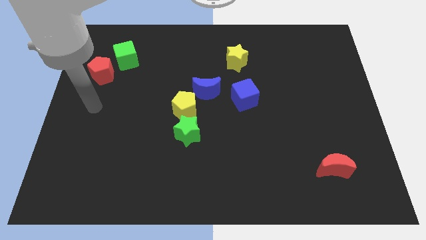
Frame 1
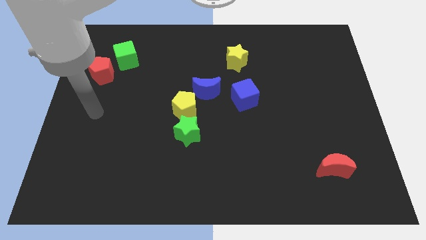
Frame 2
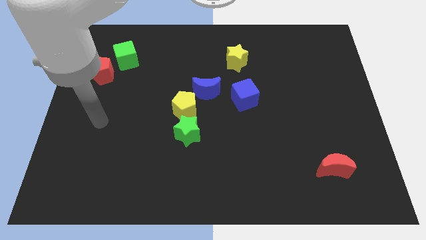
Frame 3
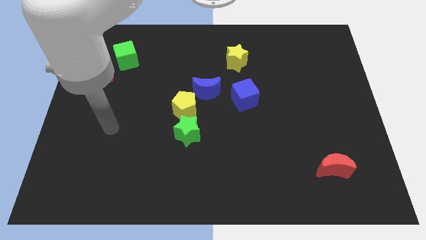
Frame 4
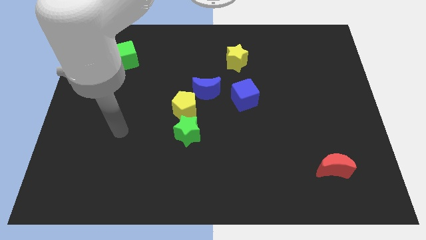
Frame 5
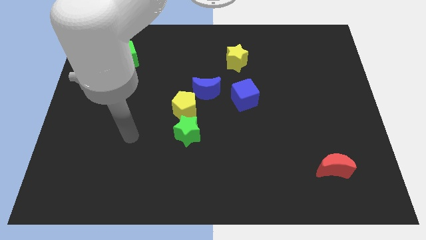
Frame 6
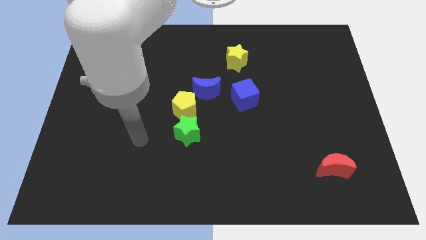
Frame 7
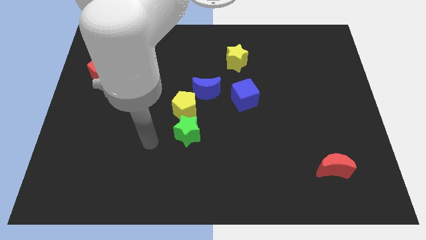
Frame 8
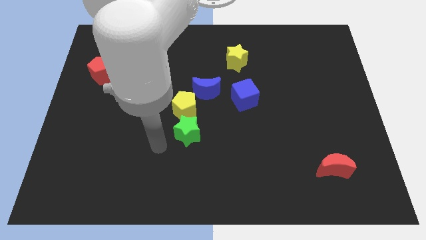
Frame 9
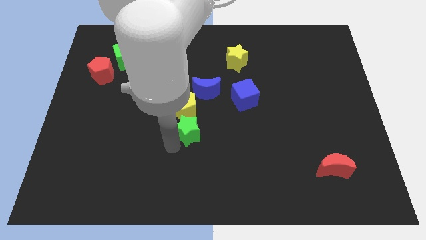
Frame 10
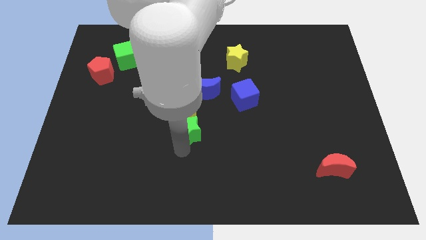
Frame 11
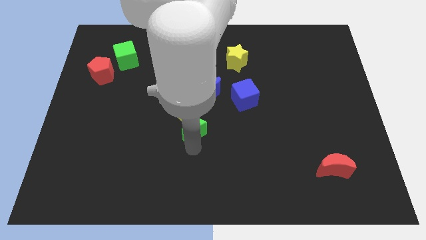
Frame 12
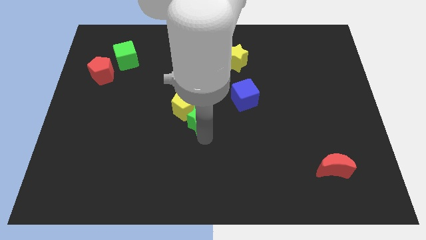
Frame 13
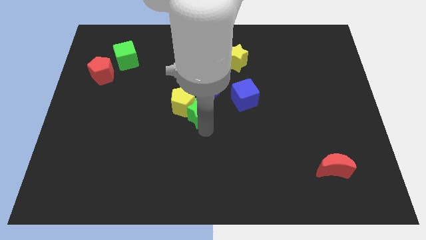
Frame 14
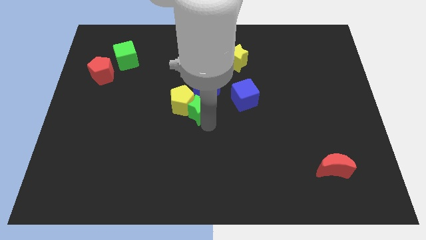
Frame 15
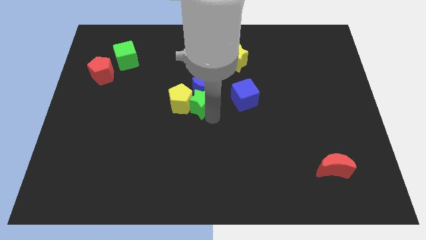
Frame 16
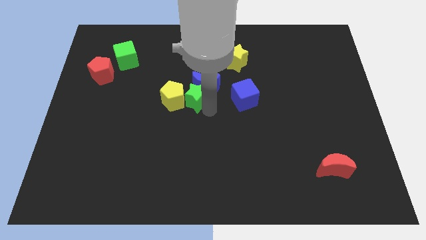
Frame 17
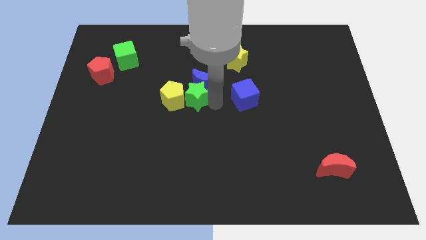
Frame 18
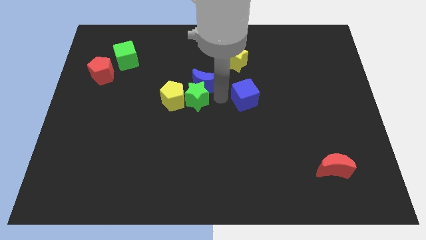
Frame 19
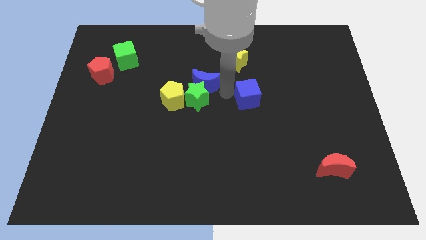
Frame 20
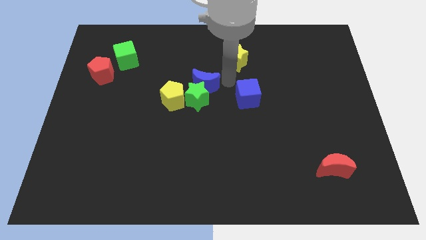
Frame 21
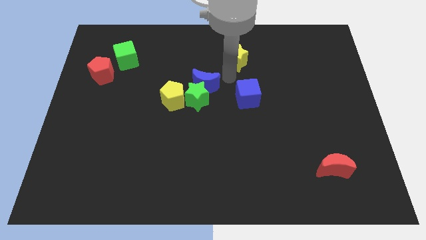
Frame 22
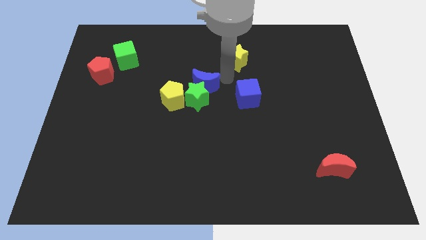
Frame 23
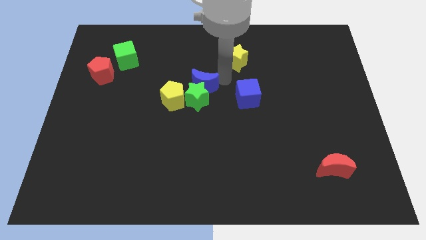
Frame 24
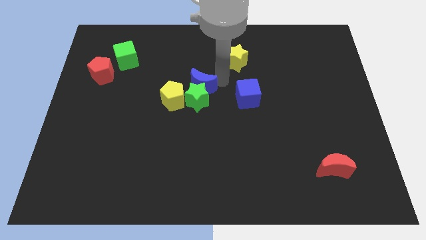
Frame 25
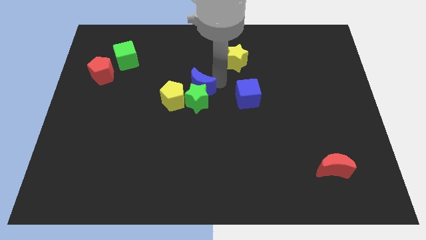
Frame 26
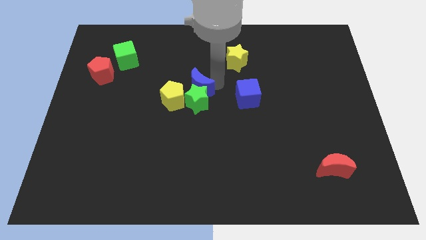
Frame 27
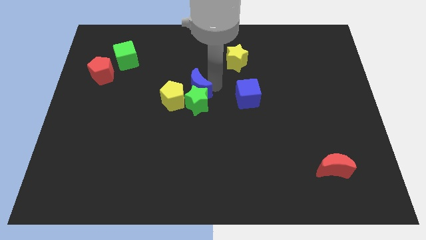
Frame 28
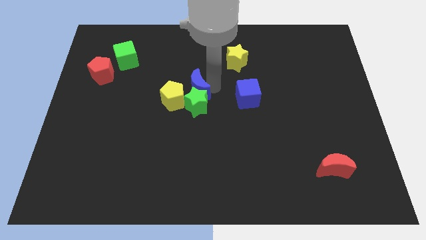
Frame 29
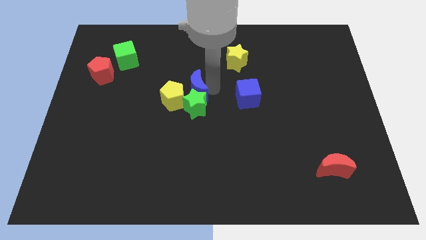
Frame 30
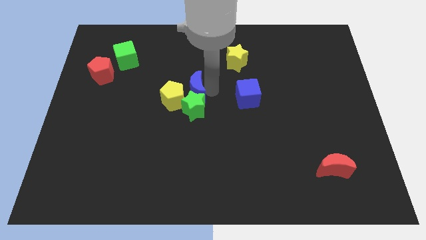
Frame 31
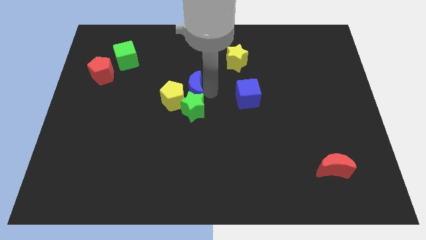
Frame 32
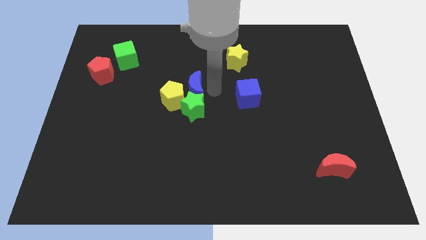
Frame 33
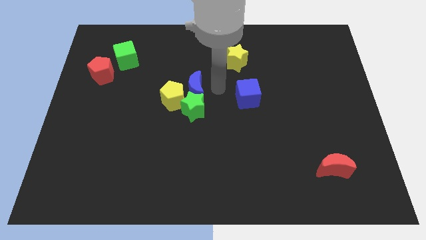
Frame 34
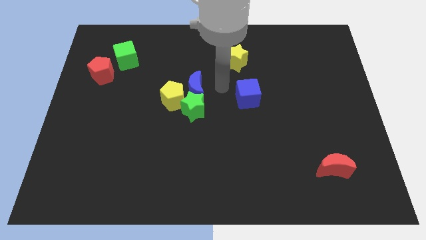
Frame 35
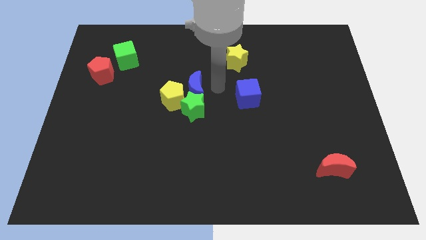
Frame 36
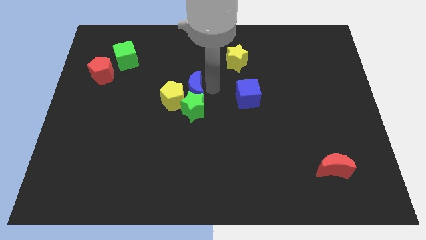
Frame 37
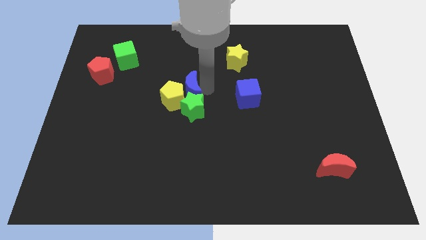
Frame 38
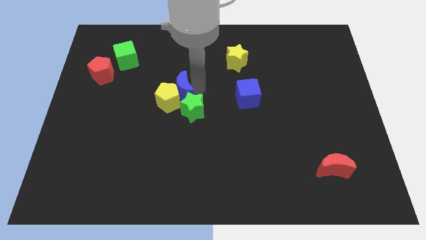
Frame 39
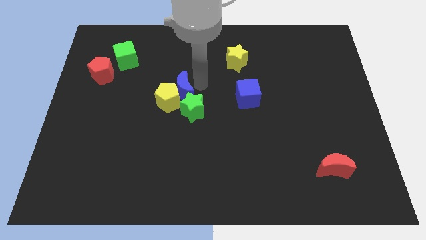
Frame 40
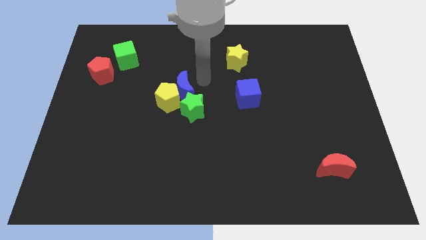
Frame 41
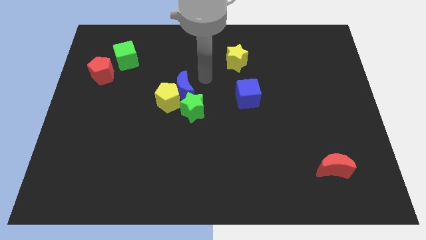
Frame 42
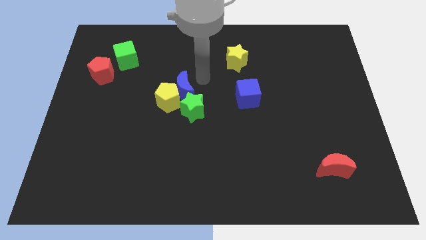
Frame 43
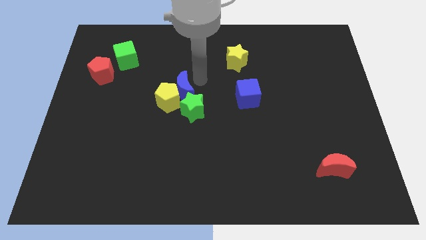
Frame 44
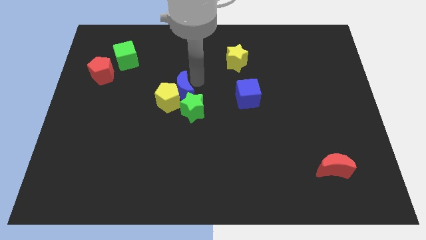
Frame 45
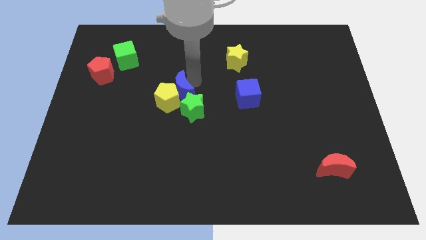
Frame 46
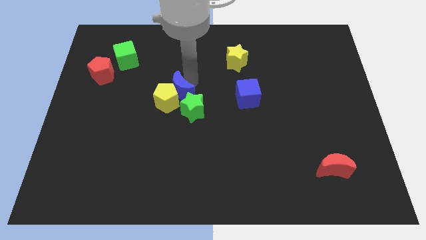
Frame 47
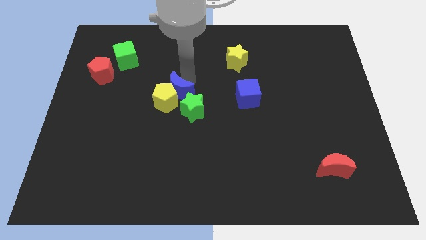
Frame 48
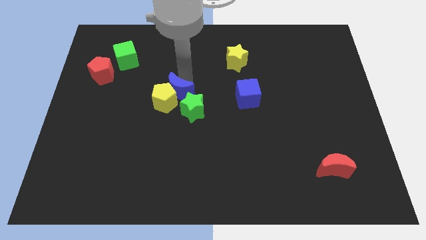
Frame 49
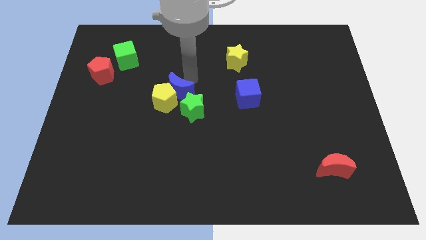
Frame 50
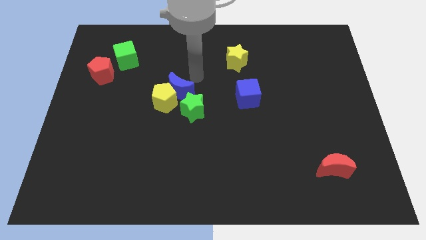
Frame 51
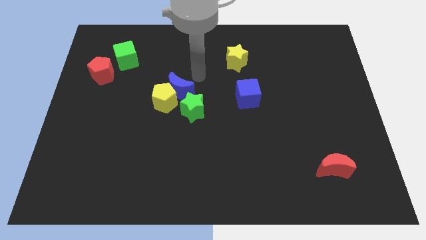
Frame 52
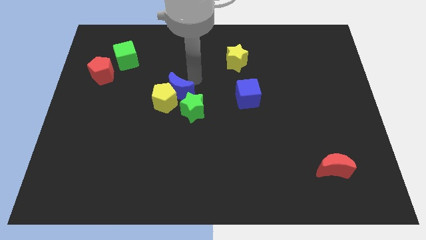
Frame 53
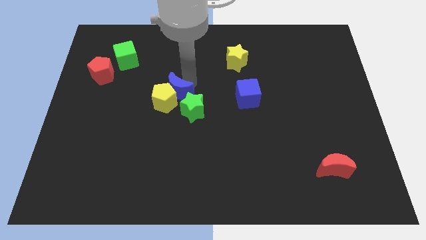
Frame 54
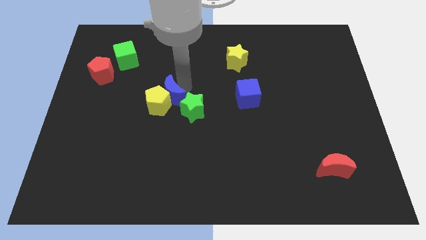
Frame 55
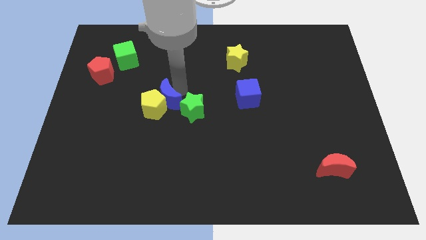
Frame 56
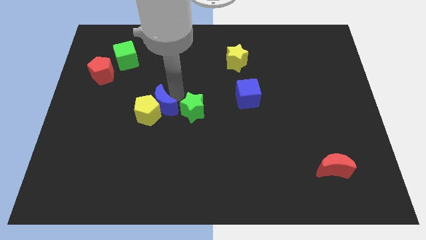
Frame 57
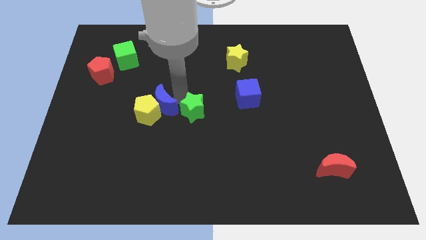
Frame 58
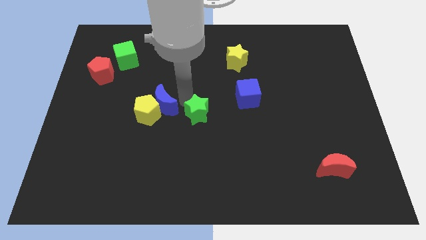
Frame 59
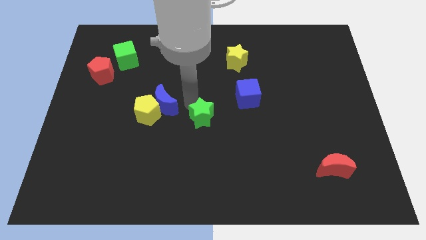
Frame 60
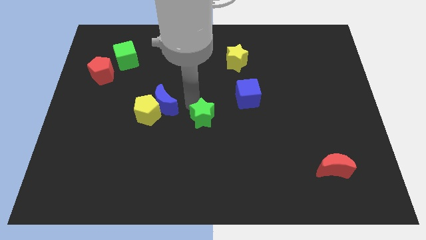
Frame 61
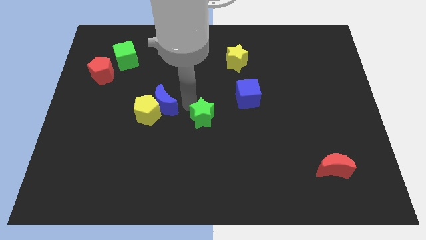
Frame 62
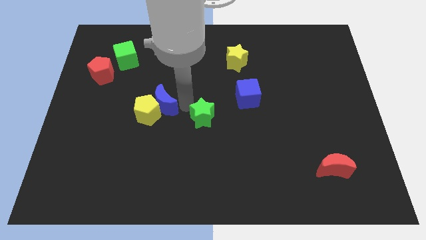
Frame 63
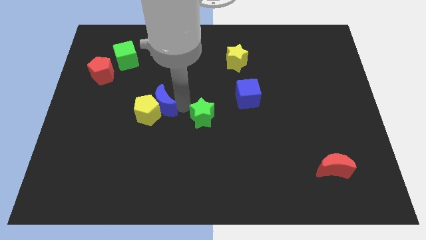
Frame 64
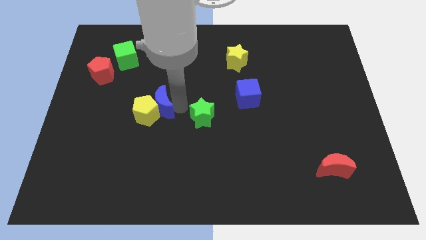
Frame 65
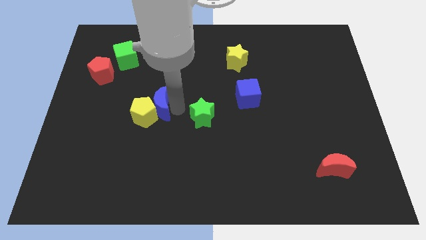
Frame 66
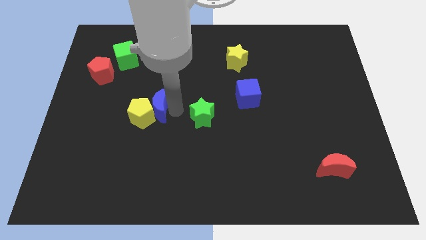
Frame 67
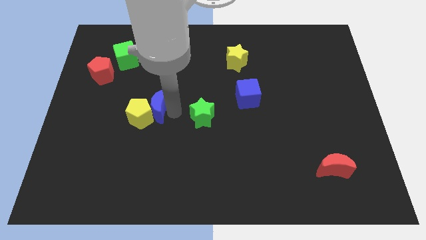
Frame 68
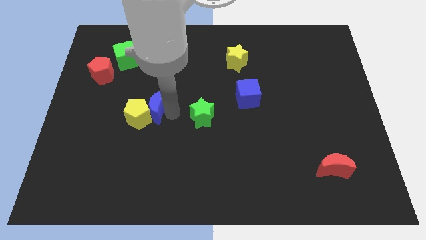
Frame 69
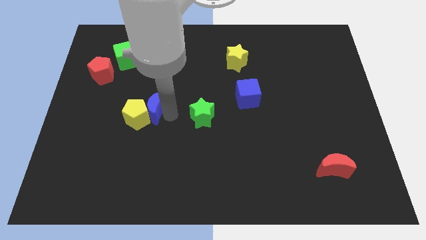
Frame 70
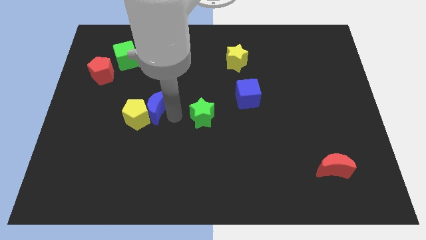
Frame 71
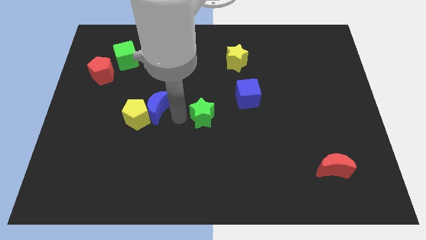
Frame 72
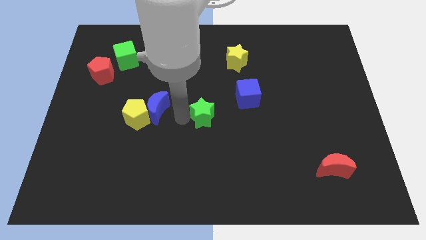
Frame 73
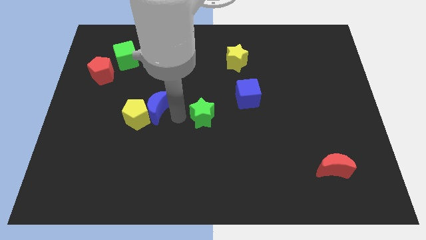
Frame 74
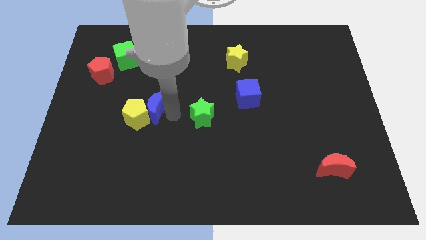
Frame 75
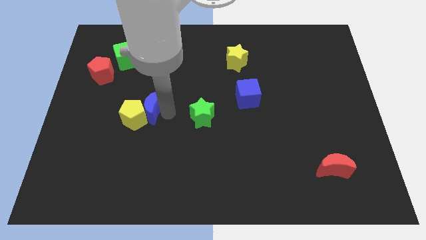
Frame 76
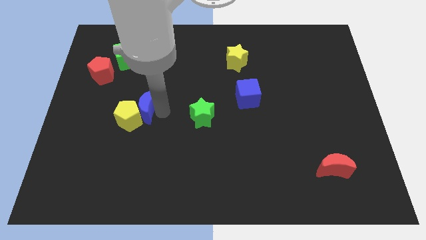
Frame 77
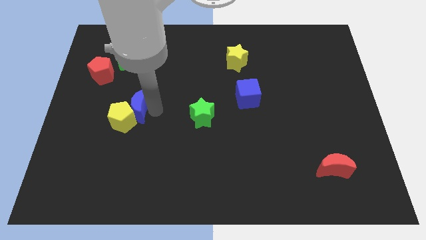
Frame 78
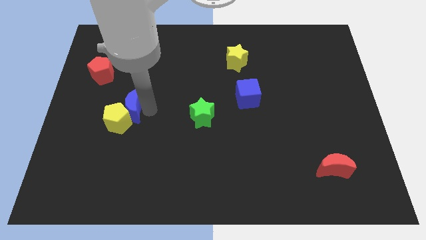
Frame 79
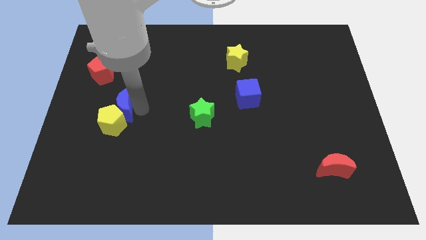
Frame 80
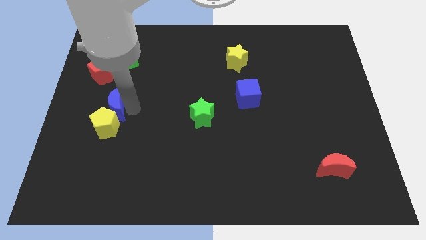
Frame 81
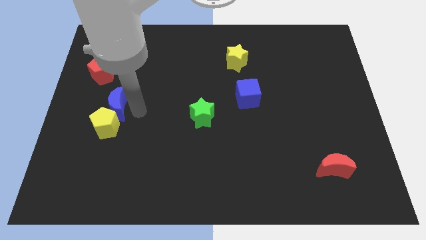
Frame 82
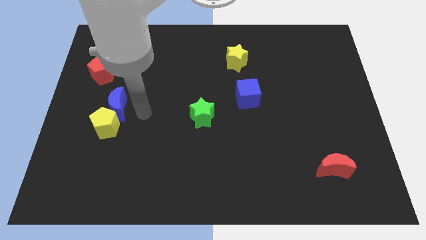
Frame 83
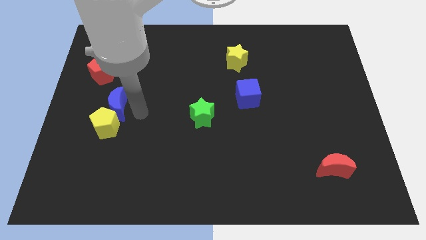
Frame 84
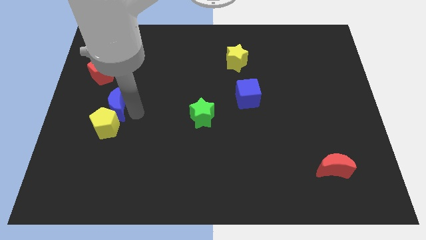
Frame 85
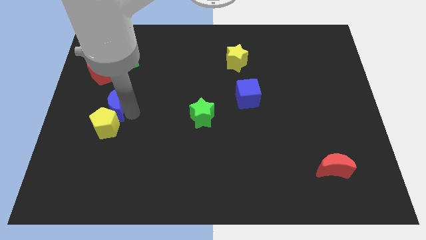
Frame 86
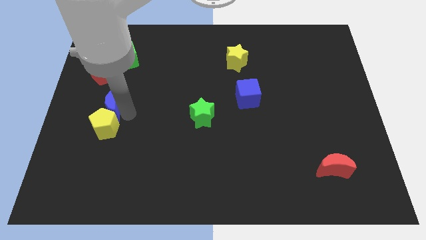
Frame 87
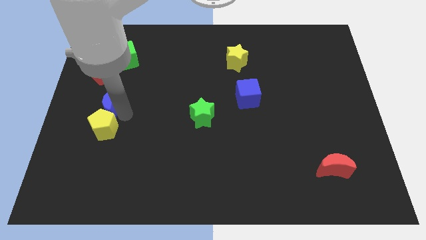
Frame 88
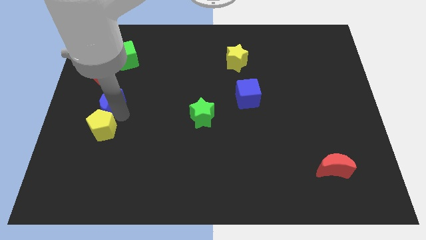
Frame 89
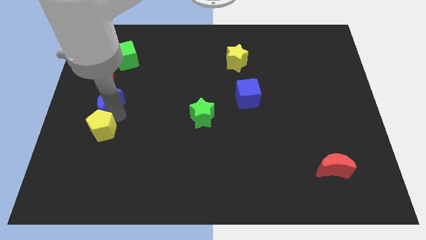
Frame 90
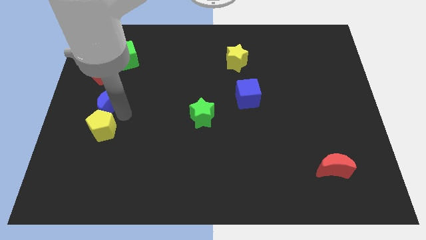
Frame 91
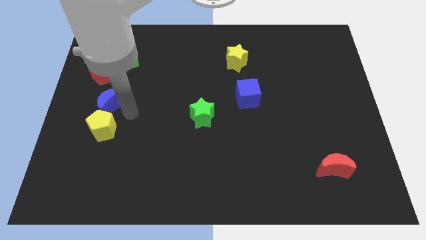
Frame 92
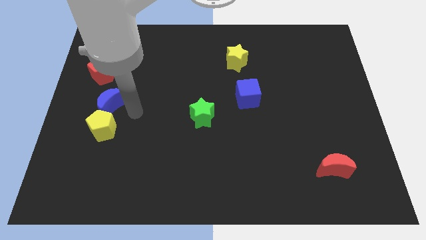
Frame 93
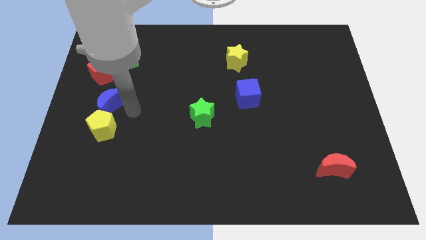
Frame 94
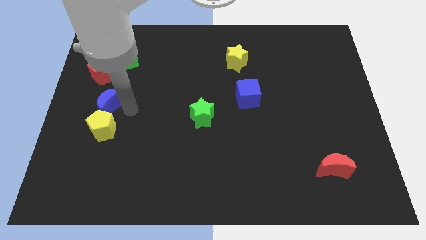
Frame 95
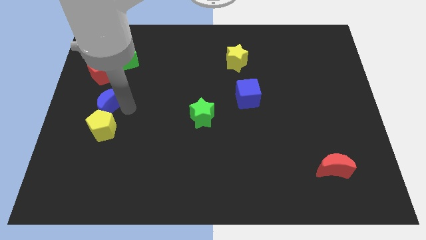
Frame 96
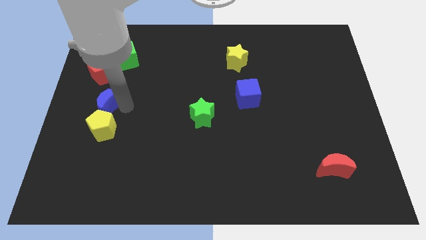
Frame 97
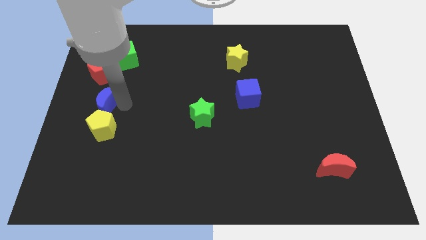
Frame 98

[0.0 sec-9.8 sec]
move the blue moon to the left side
